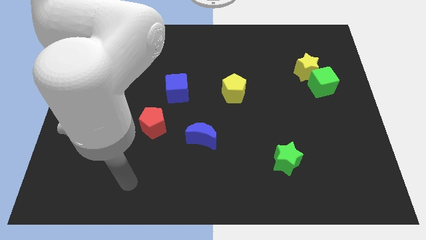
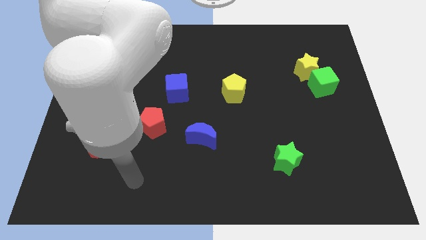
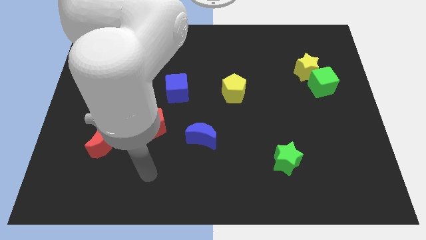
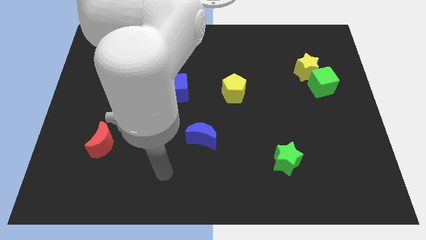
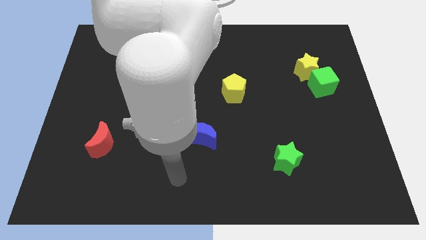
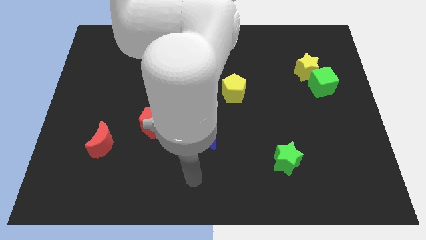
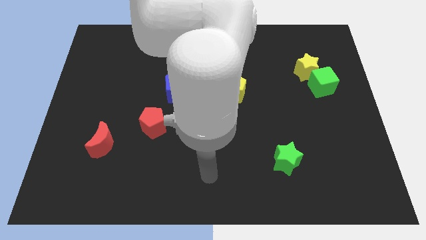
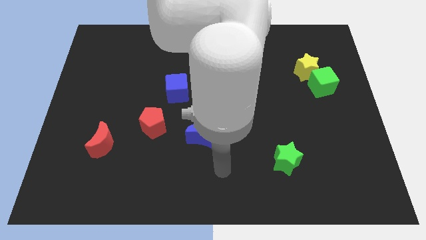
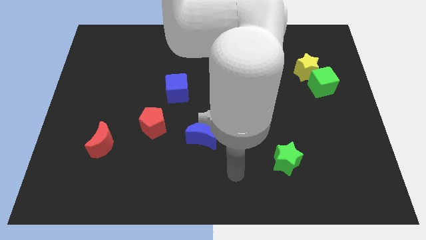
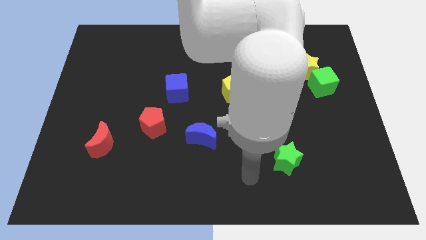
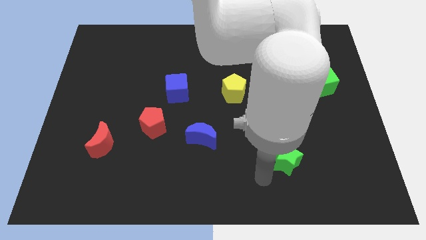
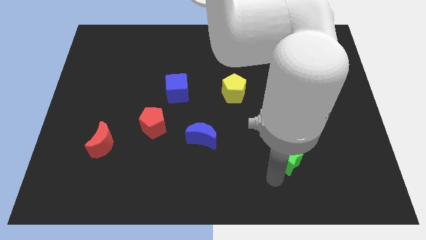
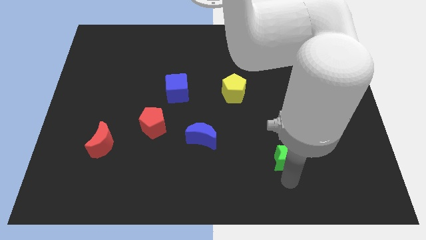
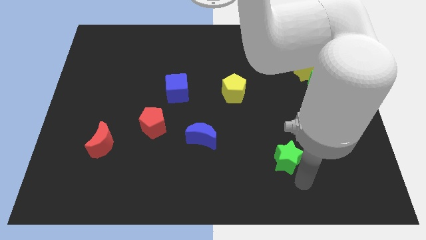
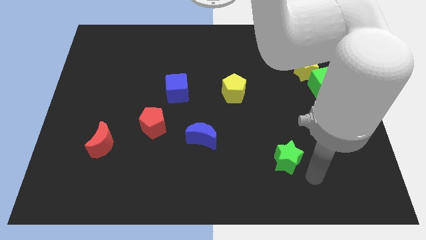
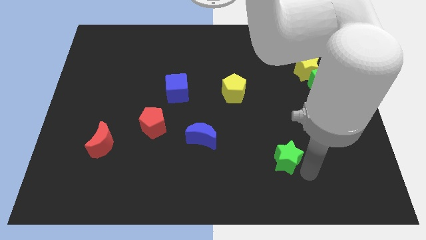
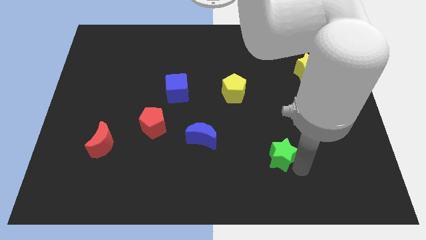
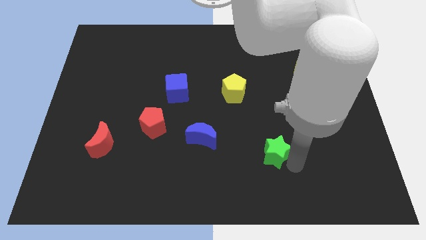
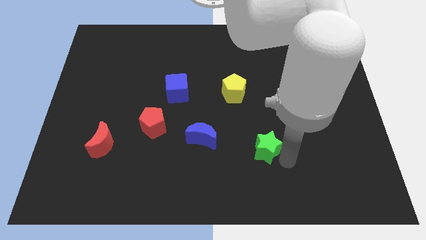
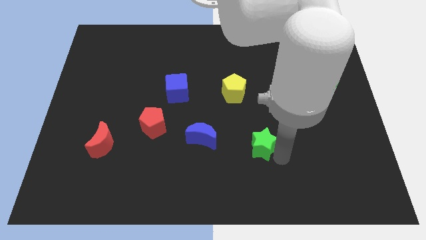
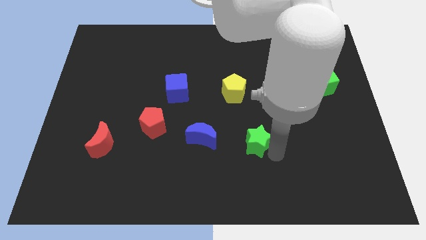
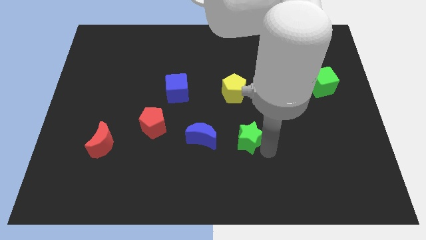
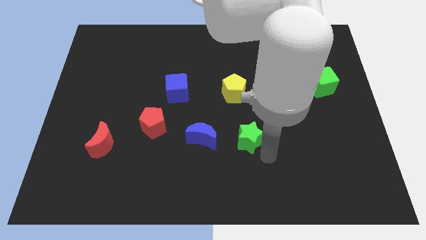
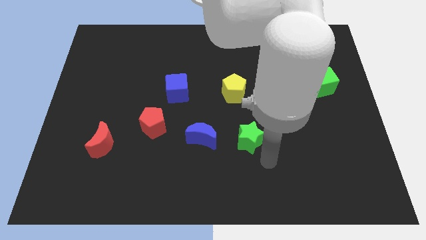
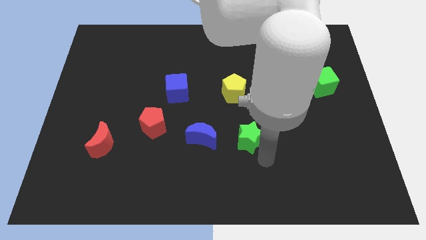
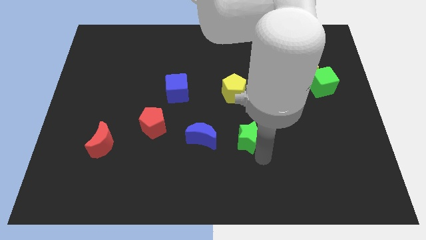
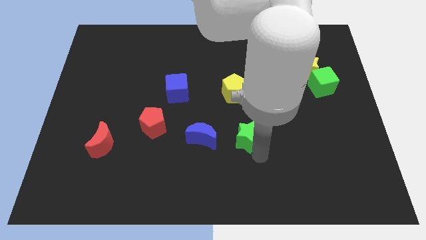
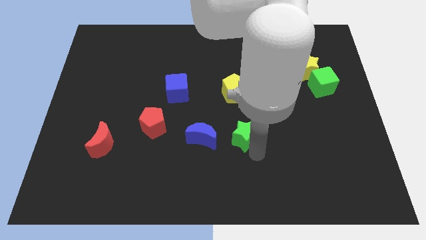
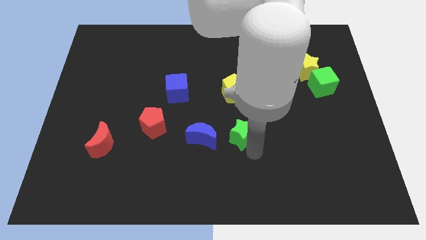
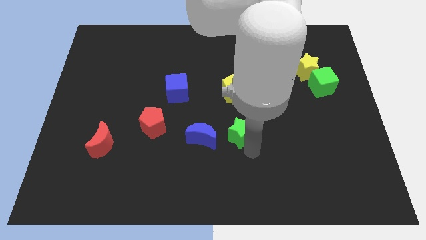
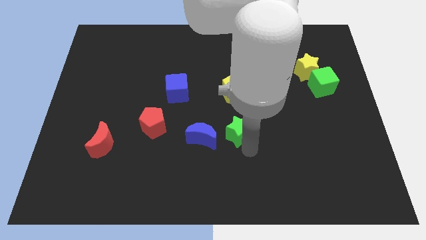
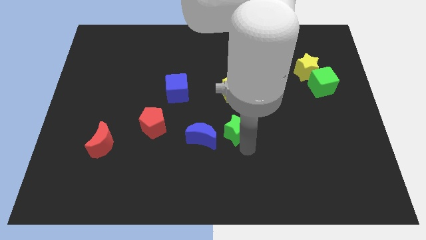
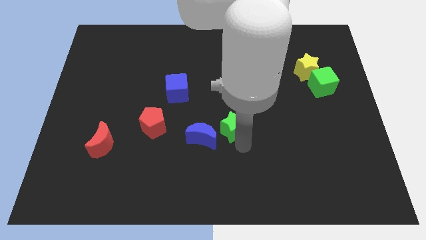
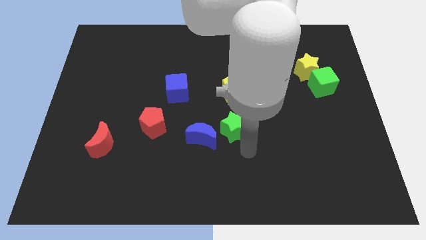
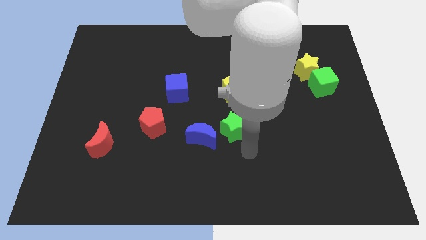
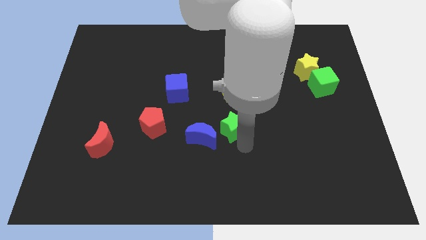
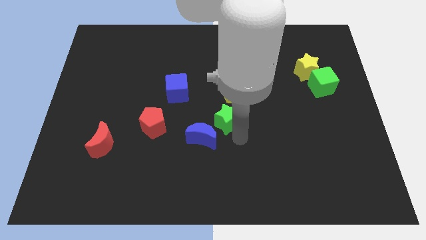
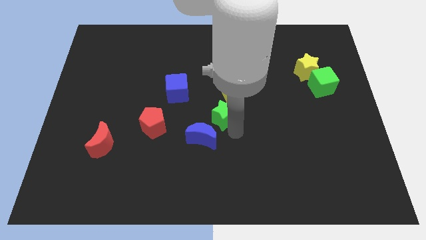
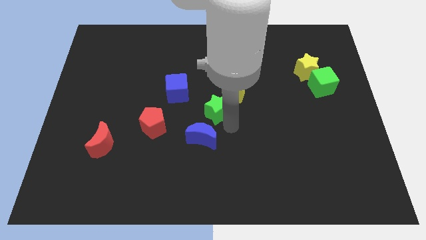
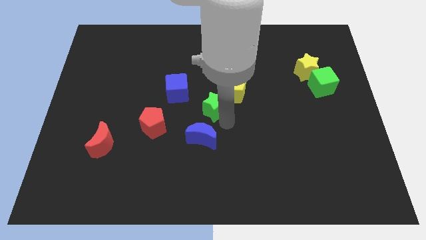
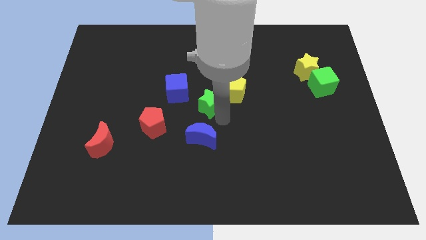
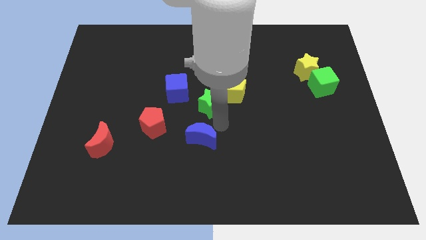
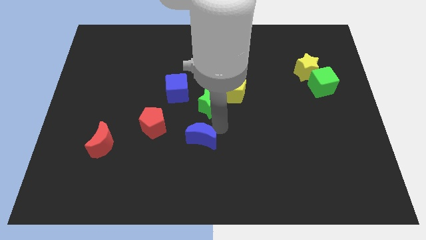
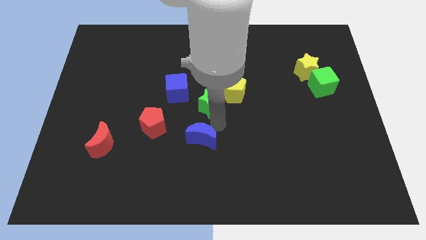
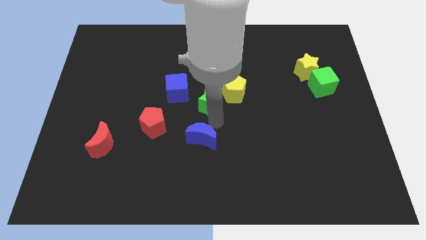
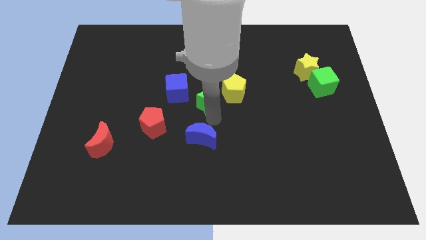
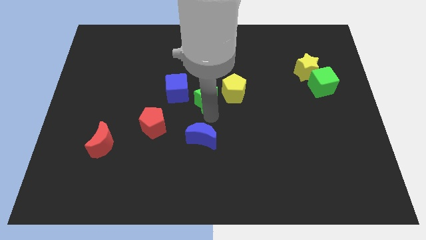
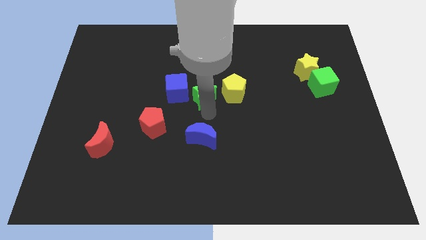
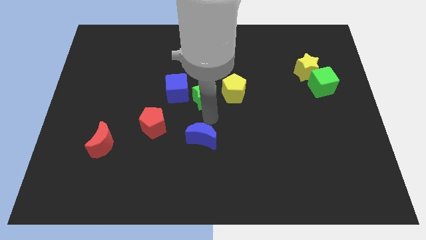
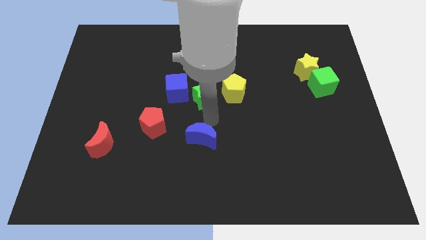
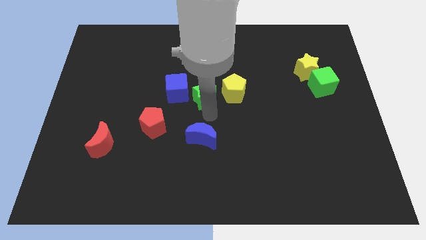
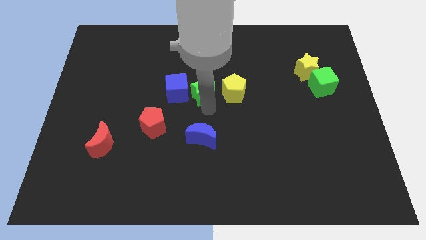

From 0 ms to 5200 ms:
slide the green star to the top right of the blue cube

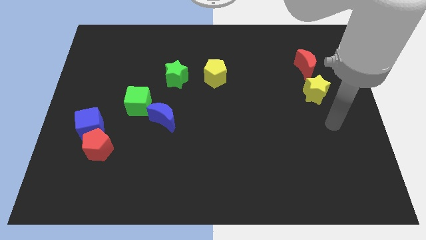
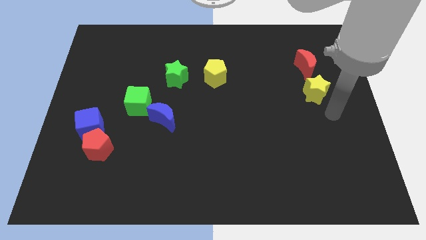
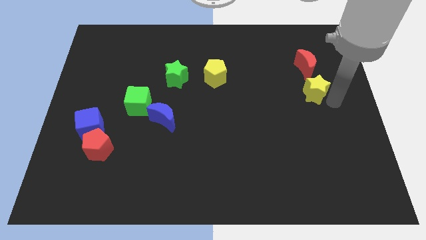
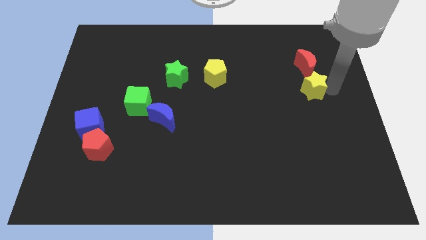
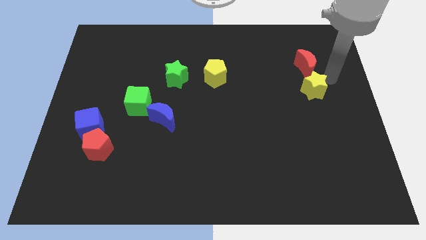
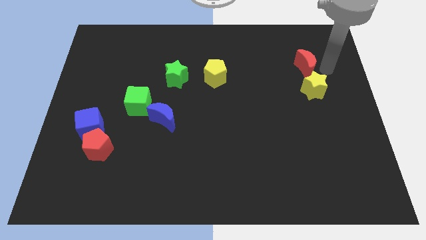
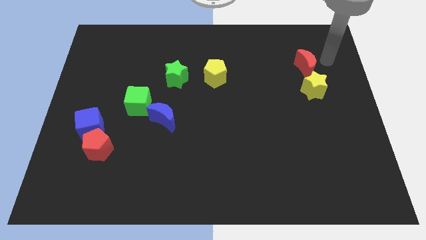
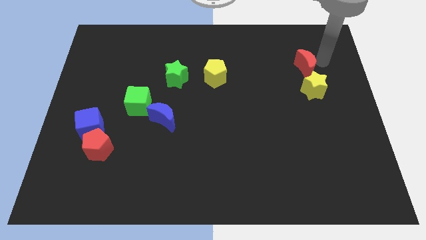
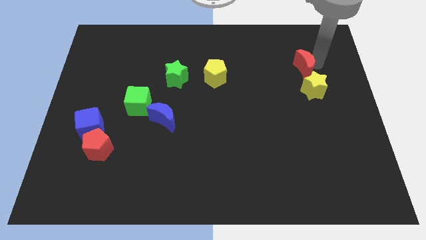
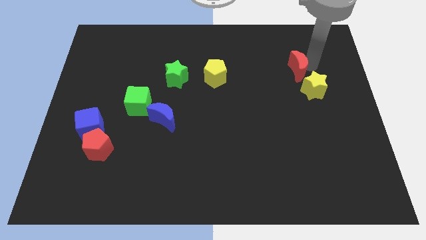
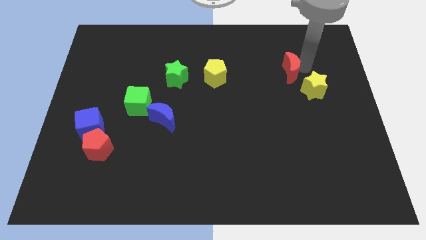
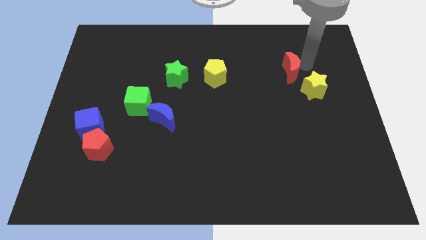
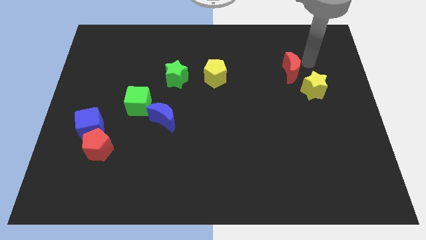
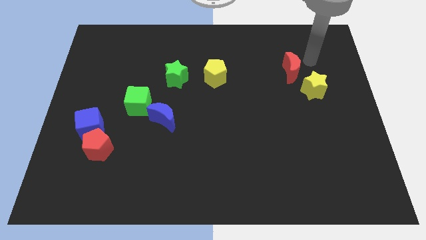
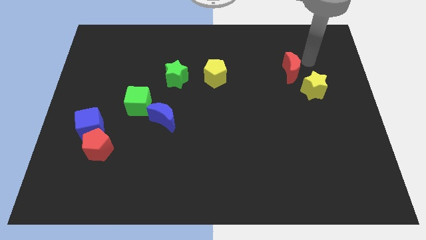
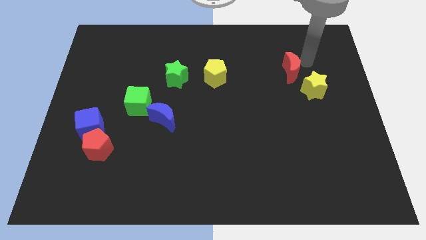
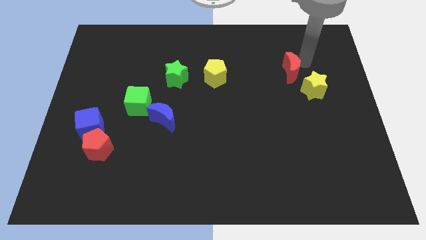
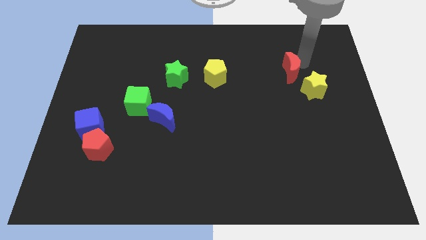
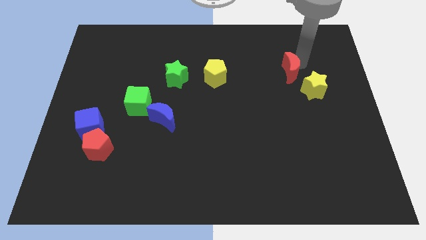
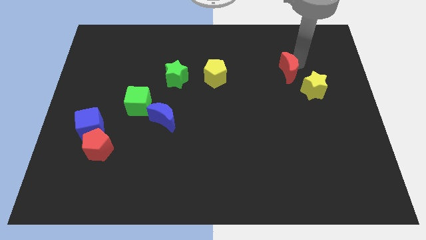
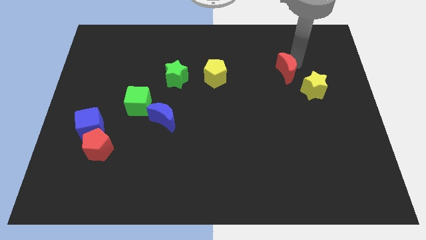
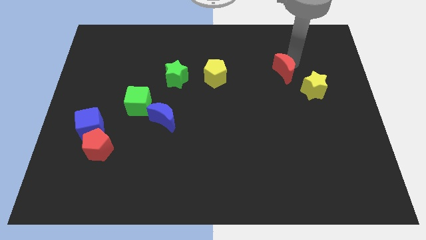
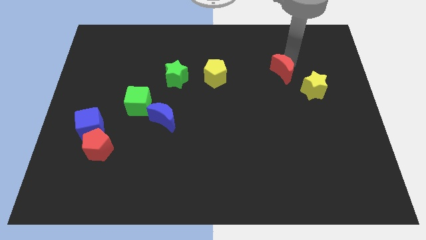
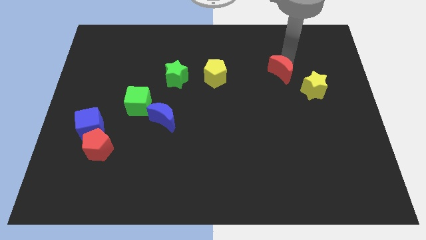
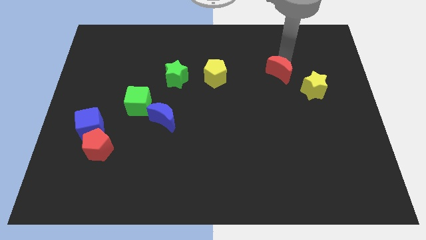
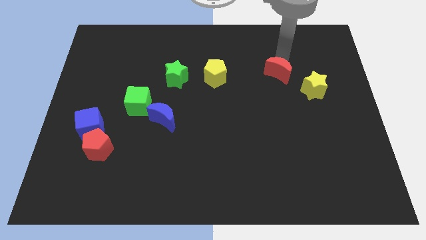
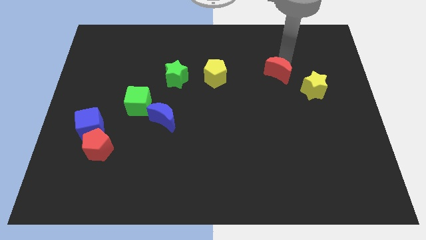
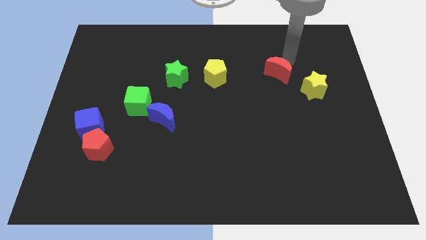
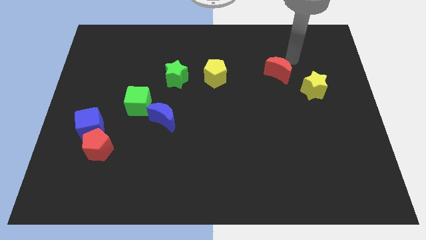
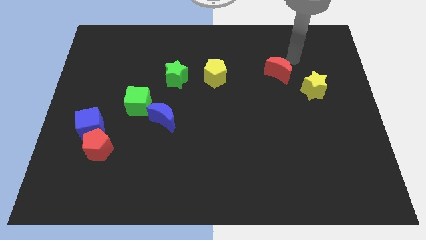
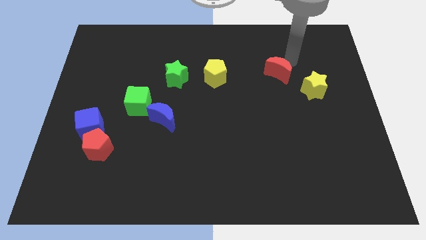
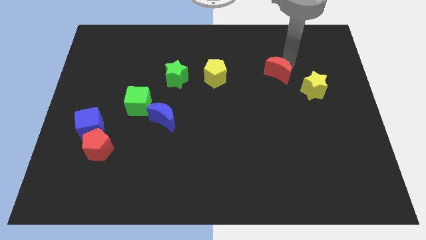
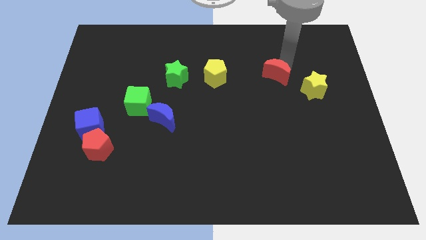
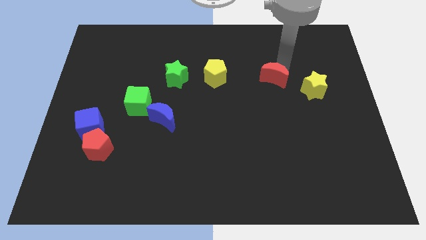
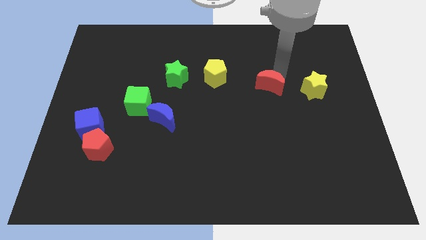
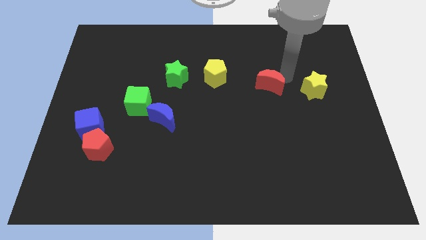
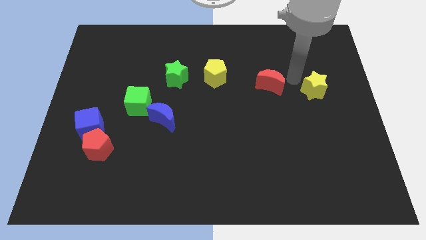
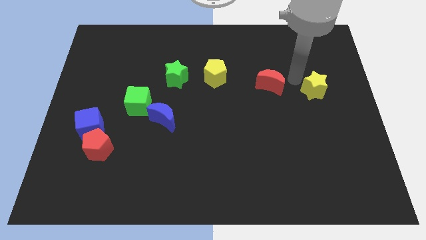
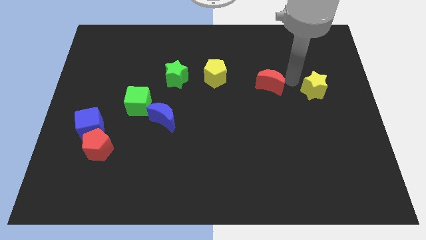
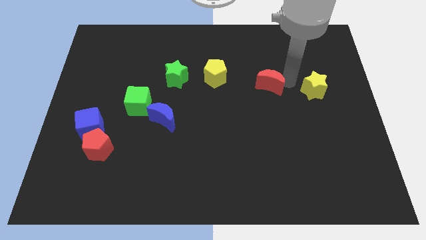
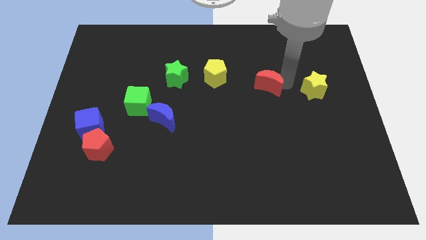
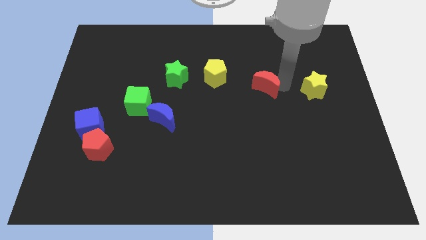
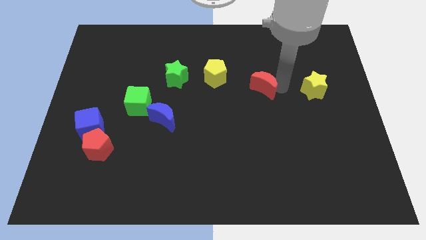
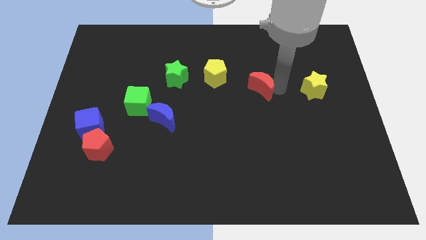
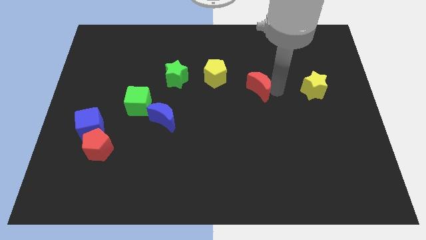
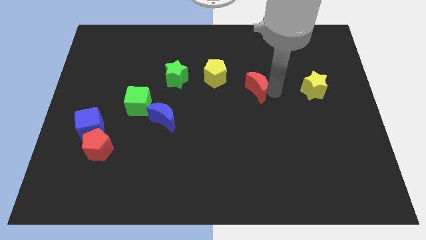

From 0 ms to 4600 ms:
slide the red moon to the bottom right side of the yellow pentagon
